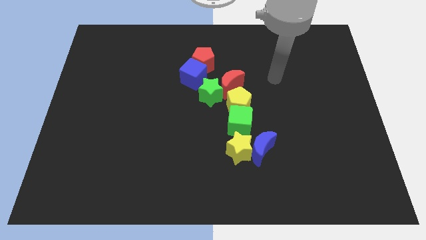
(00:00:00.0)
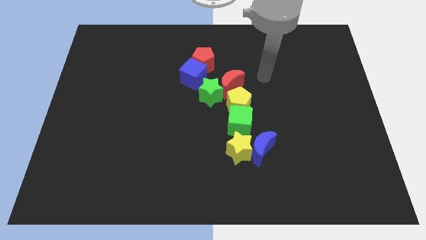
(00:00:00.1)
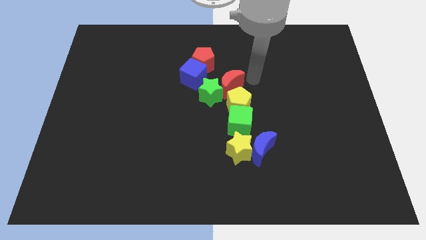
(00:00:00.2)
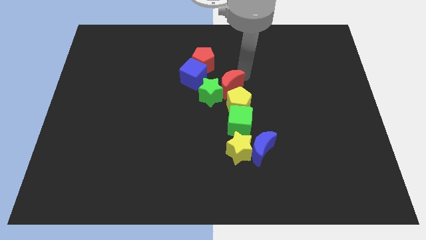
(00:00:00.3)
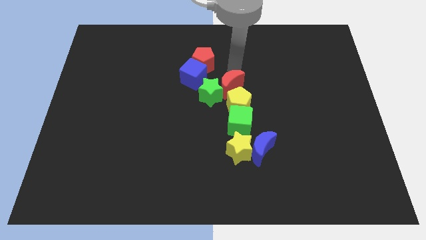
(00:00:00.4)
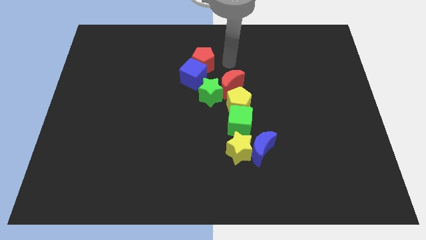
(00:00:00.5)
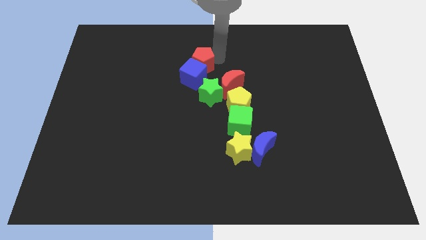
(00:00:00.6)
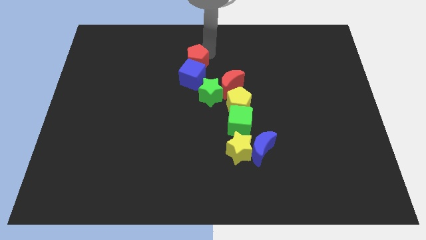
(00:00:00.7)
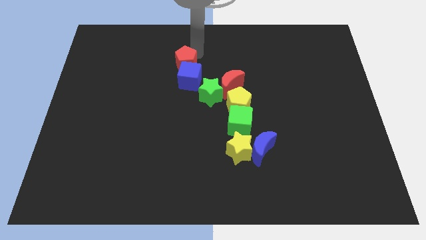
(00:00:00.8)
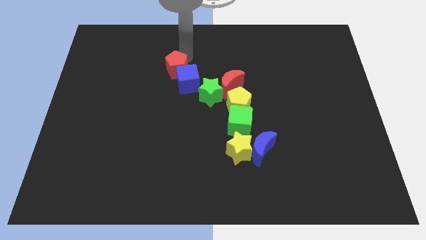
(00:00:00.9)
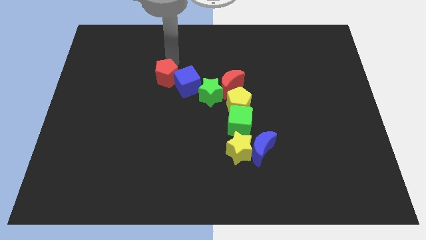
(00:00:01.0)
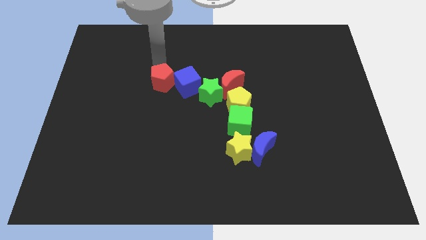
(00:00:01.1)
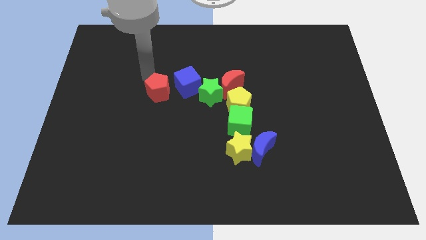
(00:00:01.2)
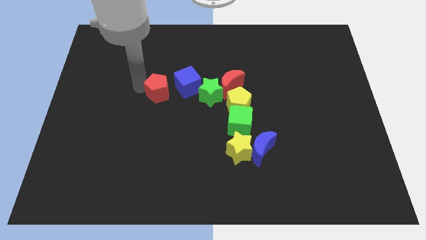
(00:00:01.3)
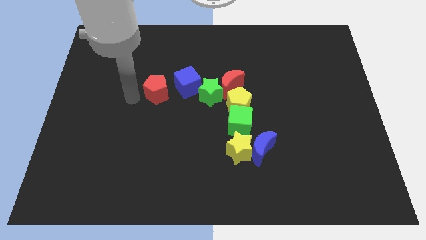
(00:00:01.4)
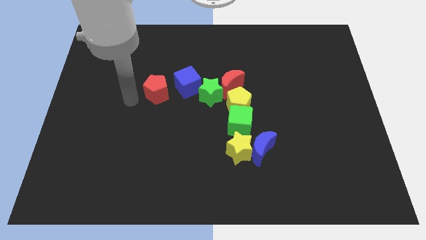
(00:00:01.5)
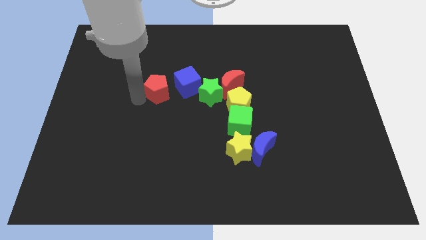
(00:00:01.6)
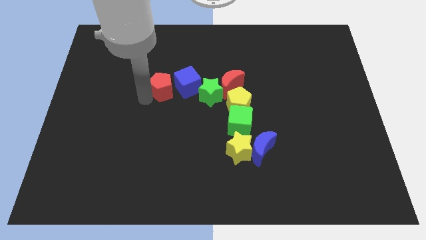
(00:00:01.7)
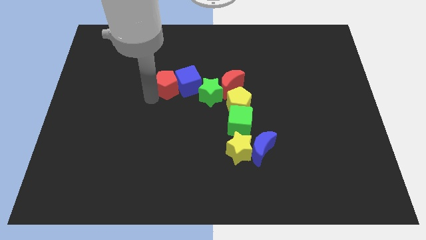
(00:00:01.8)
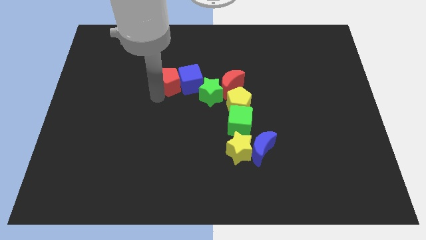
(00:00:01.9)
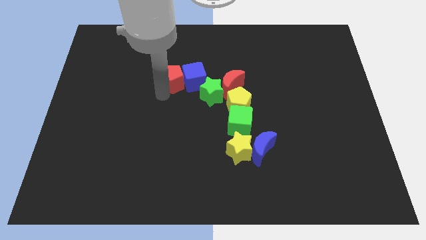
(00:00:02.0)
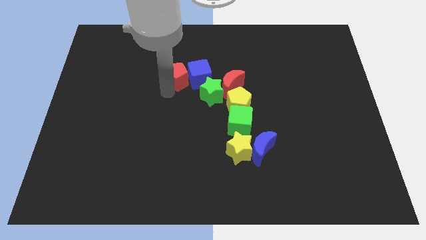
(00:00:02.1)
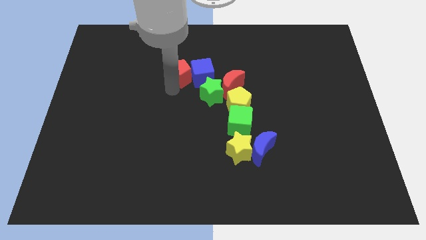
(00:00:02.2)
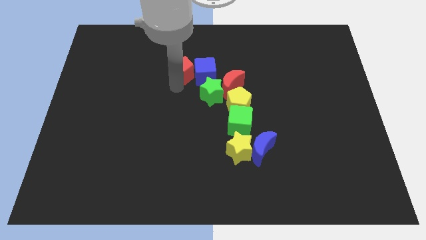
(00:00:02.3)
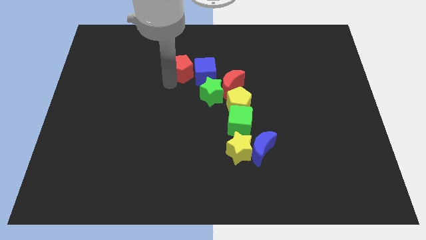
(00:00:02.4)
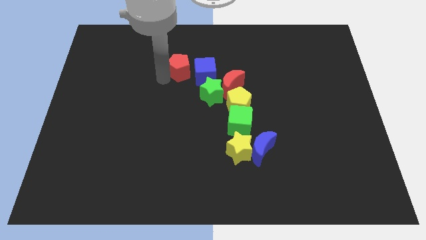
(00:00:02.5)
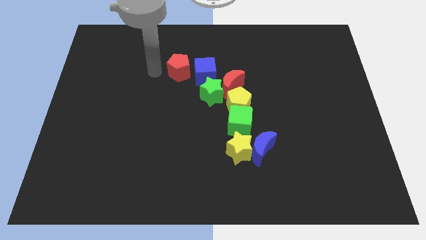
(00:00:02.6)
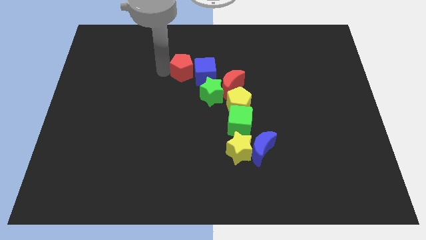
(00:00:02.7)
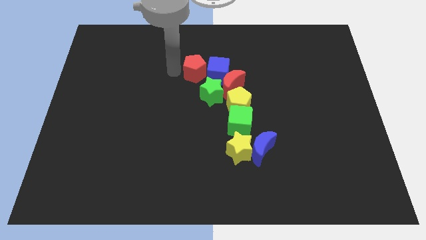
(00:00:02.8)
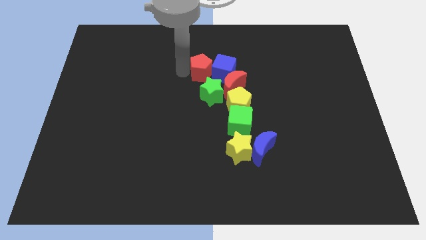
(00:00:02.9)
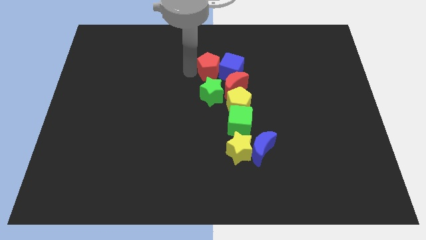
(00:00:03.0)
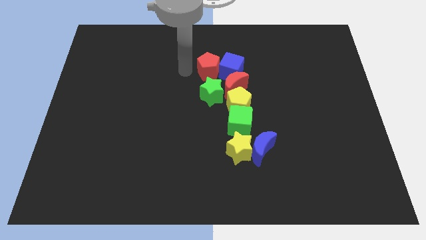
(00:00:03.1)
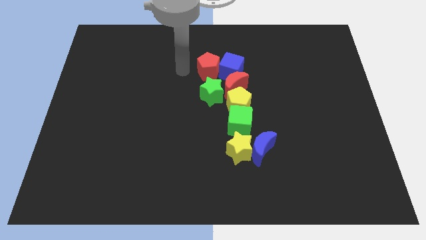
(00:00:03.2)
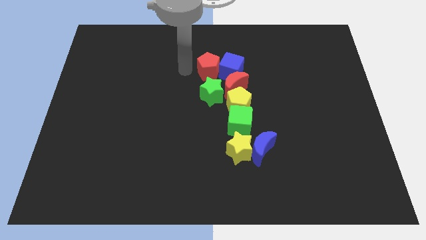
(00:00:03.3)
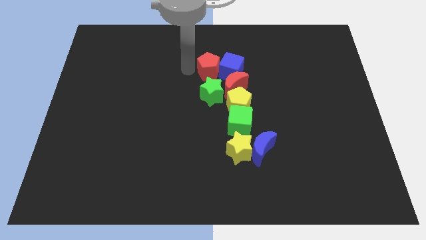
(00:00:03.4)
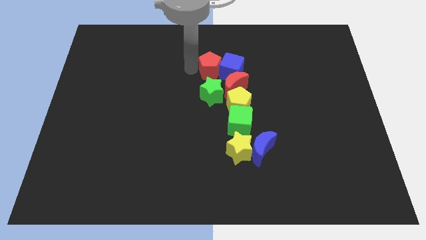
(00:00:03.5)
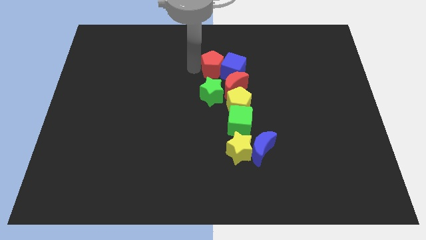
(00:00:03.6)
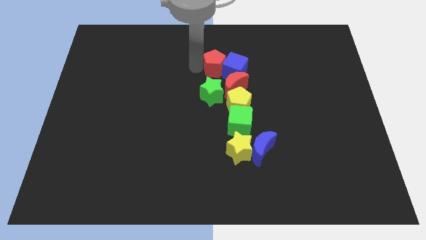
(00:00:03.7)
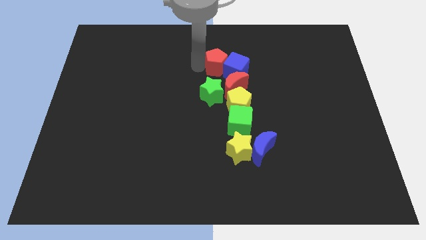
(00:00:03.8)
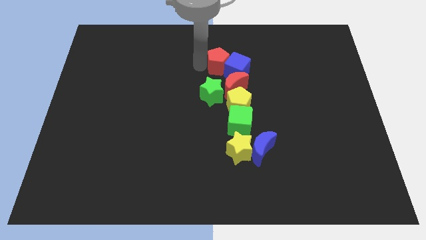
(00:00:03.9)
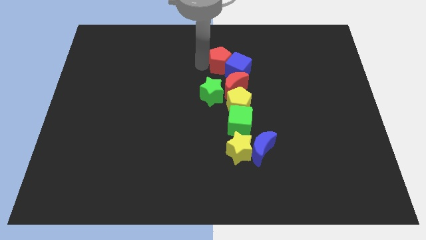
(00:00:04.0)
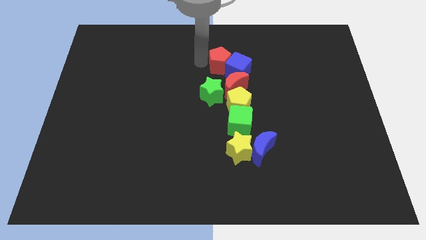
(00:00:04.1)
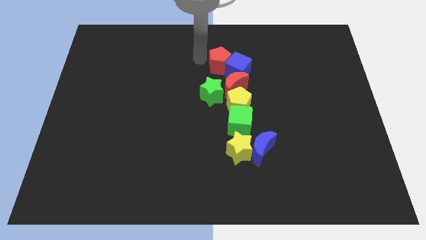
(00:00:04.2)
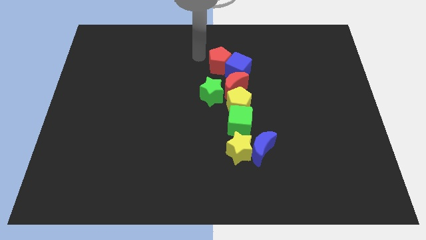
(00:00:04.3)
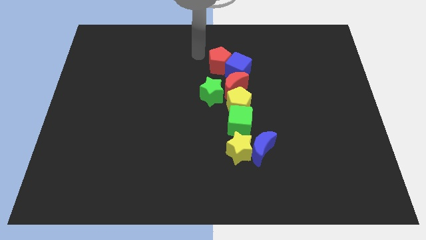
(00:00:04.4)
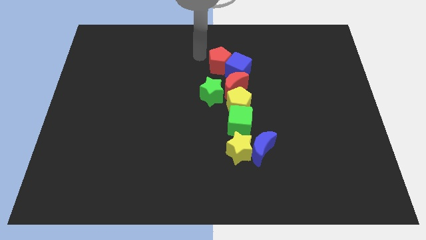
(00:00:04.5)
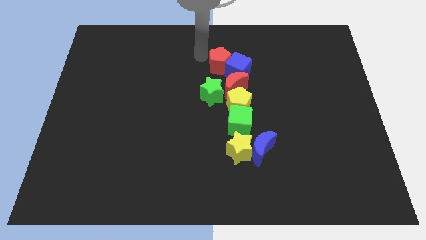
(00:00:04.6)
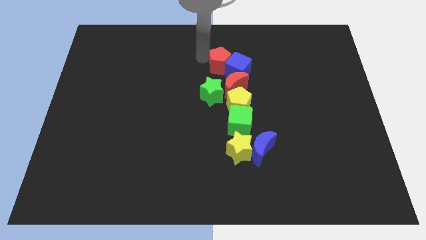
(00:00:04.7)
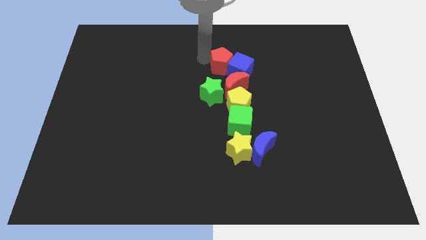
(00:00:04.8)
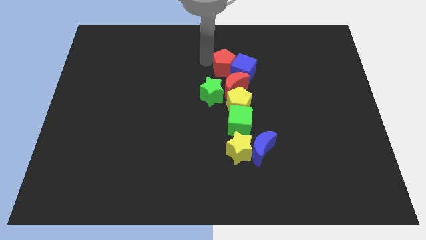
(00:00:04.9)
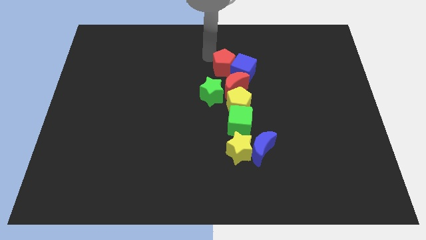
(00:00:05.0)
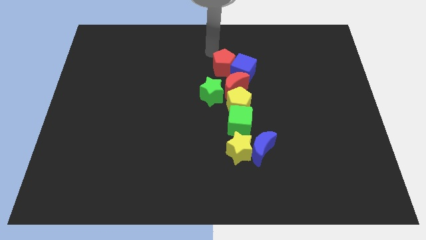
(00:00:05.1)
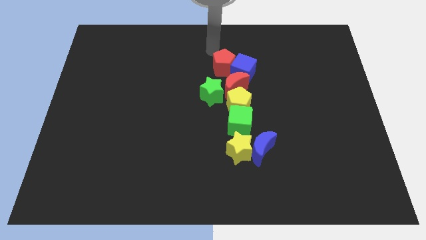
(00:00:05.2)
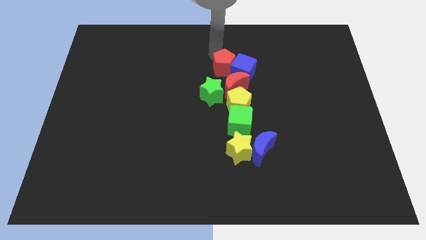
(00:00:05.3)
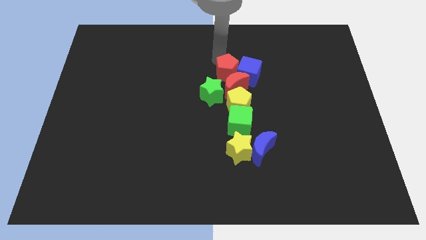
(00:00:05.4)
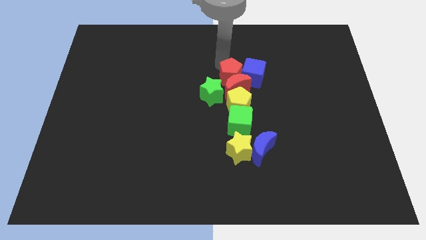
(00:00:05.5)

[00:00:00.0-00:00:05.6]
move the red pentagon to the top of the green cube

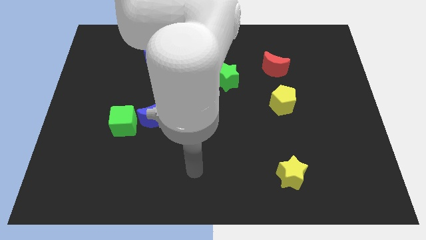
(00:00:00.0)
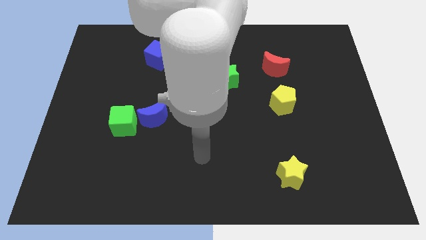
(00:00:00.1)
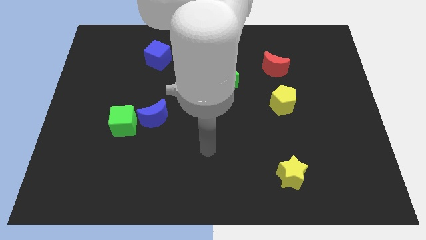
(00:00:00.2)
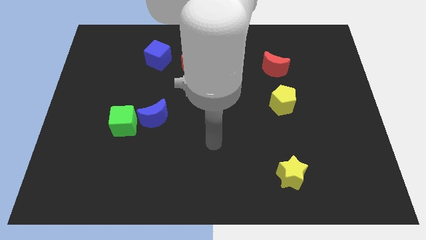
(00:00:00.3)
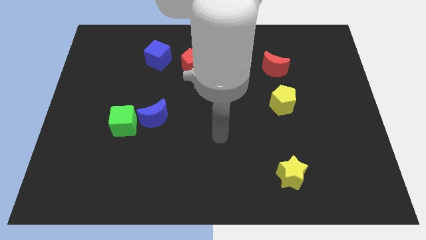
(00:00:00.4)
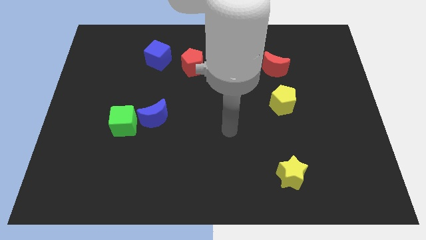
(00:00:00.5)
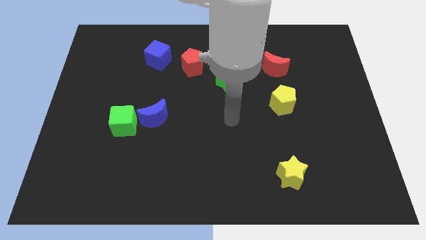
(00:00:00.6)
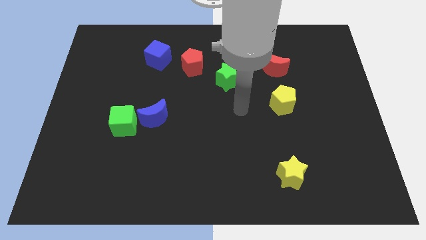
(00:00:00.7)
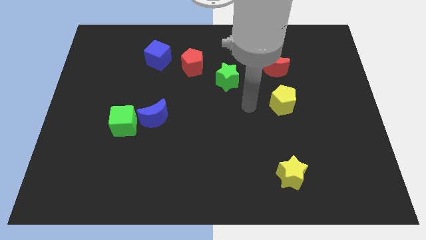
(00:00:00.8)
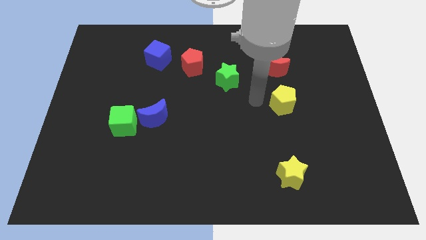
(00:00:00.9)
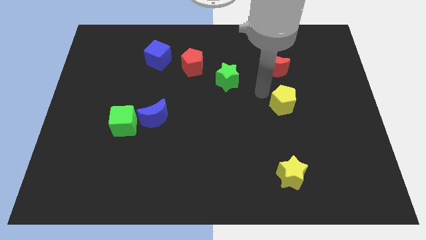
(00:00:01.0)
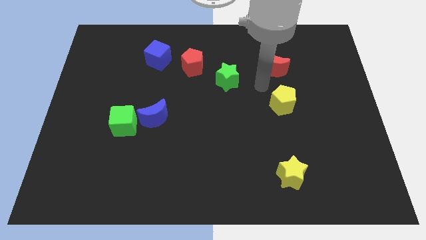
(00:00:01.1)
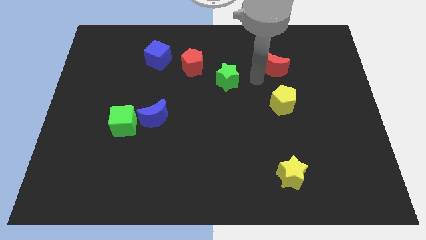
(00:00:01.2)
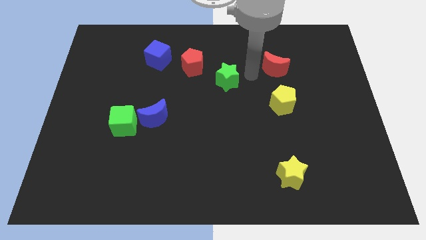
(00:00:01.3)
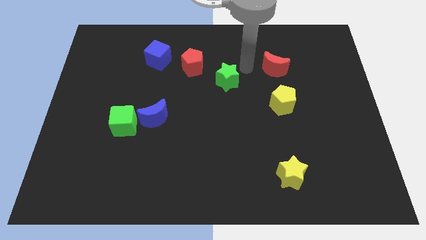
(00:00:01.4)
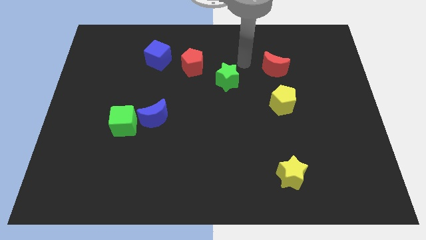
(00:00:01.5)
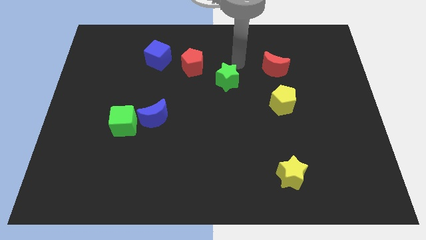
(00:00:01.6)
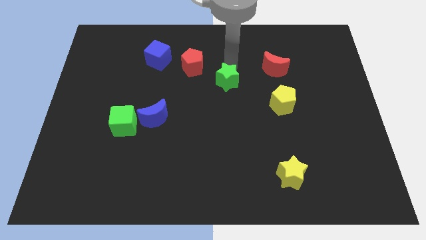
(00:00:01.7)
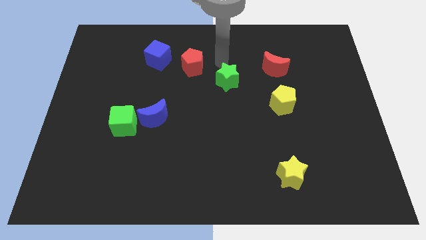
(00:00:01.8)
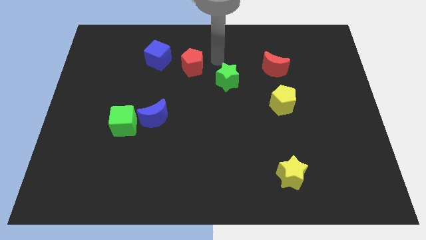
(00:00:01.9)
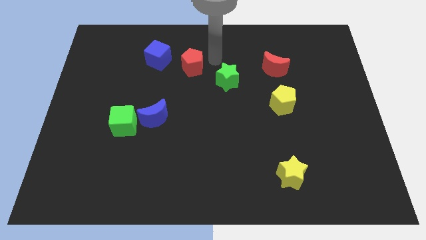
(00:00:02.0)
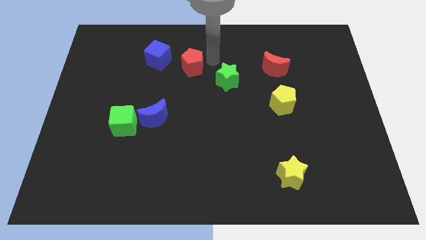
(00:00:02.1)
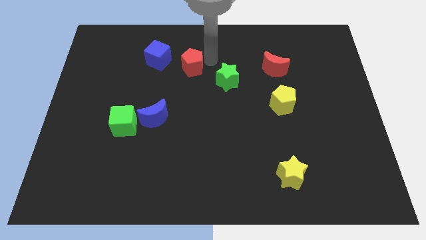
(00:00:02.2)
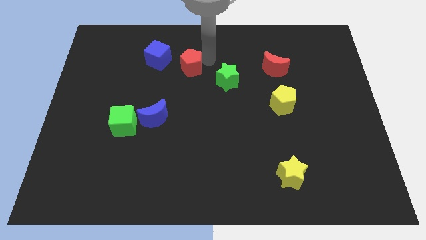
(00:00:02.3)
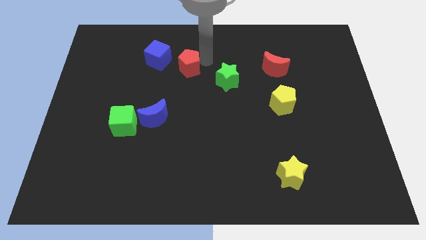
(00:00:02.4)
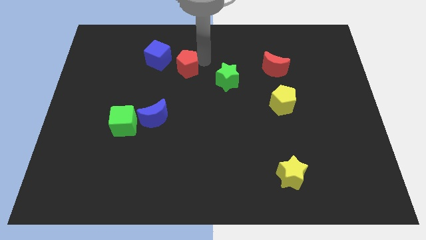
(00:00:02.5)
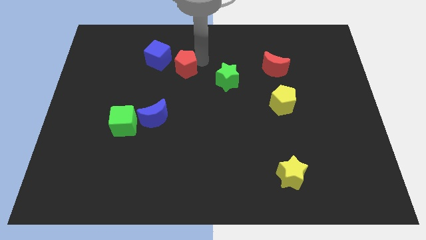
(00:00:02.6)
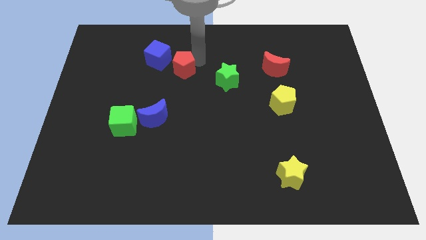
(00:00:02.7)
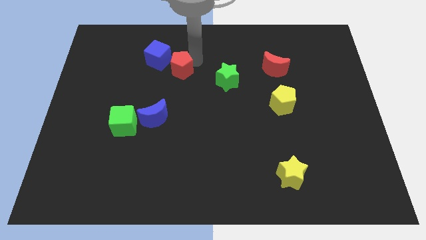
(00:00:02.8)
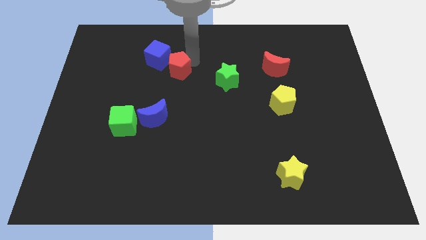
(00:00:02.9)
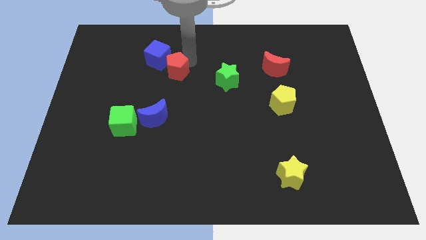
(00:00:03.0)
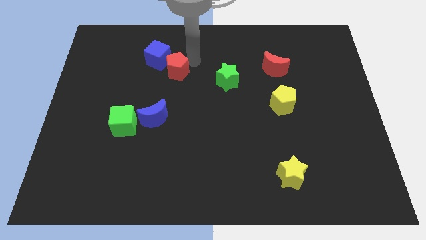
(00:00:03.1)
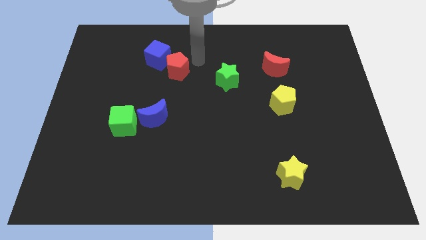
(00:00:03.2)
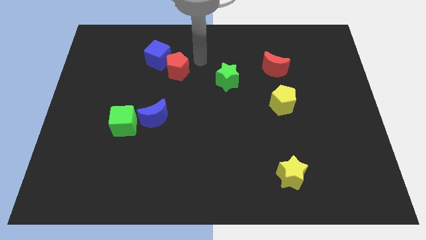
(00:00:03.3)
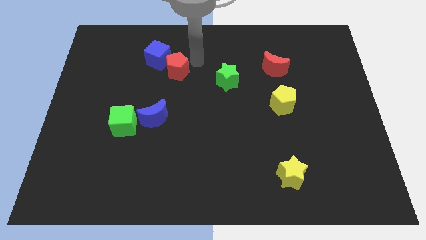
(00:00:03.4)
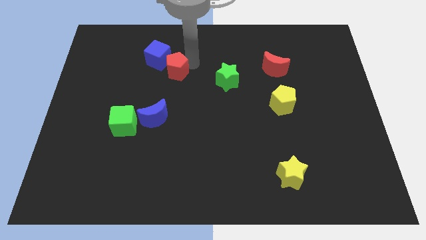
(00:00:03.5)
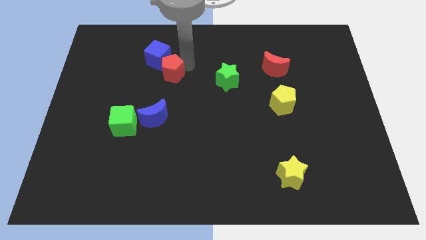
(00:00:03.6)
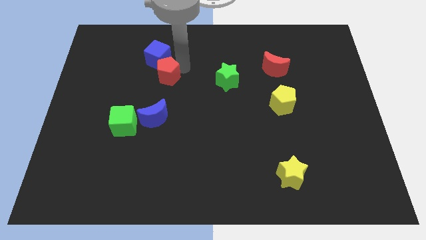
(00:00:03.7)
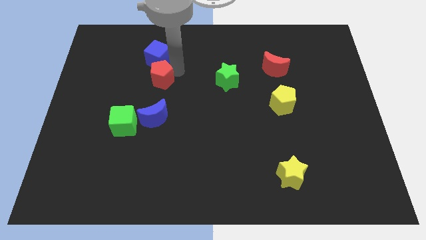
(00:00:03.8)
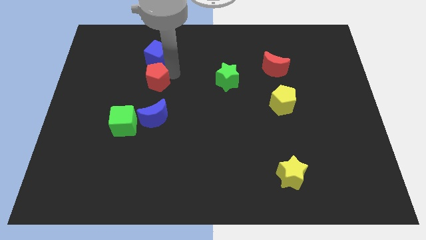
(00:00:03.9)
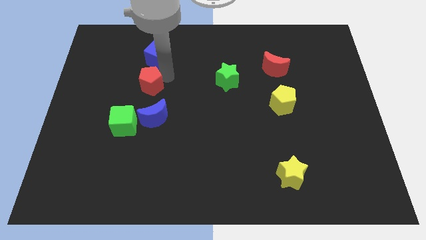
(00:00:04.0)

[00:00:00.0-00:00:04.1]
slide the red pentagon above the green cube
